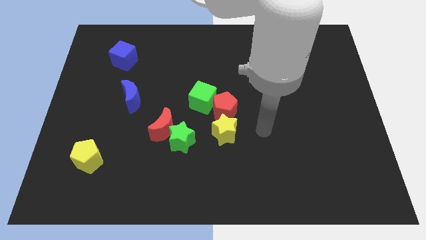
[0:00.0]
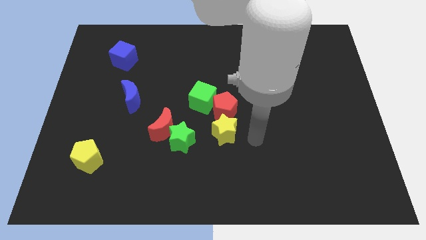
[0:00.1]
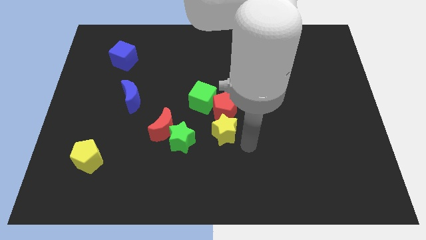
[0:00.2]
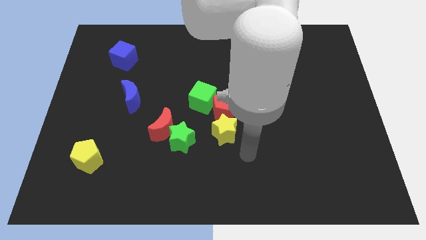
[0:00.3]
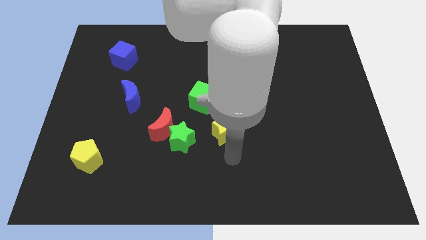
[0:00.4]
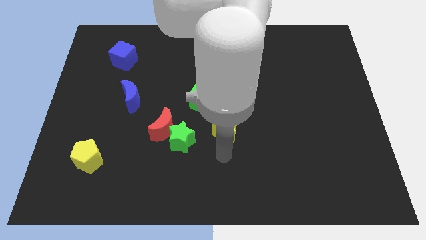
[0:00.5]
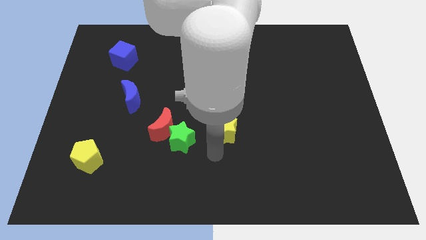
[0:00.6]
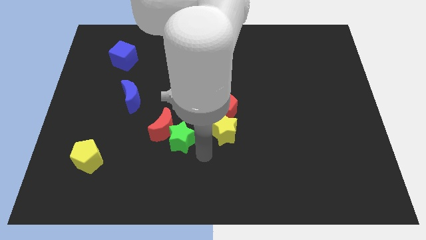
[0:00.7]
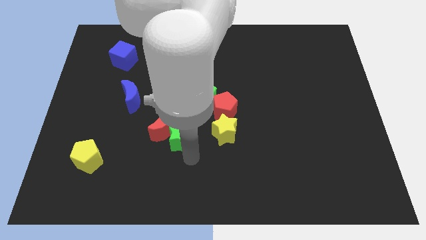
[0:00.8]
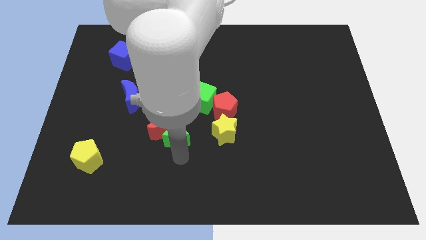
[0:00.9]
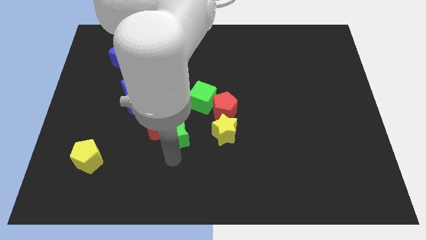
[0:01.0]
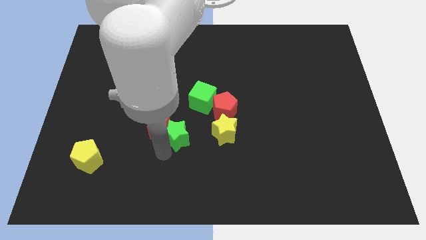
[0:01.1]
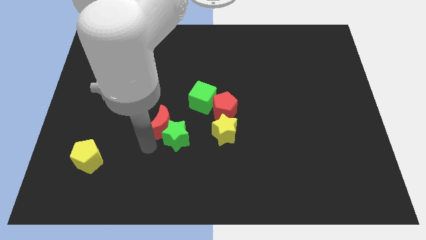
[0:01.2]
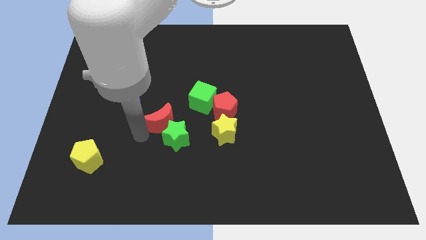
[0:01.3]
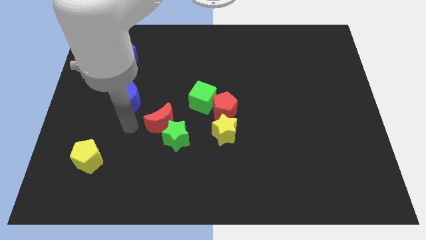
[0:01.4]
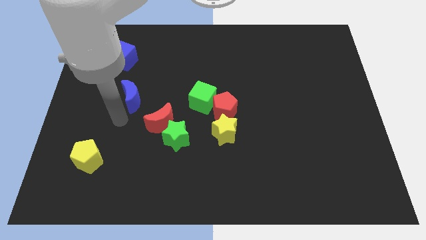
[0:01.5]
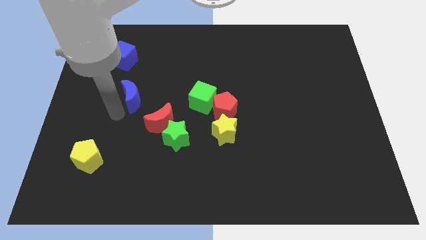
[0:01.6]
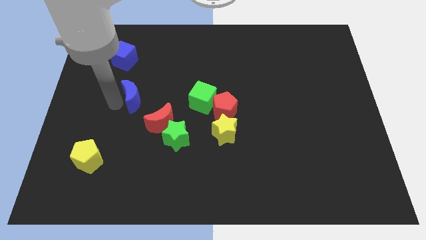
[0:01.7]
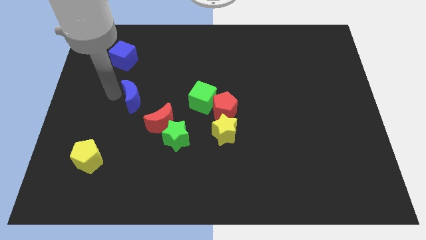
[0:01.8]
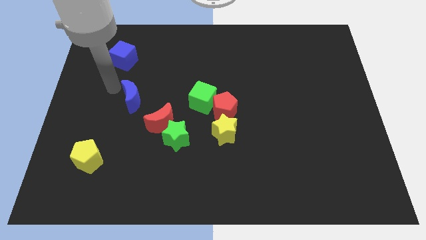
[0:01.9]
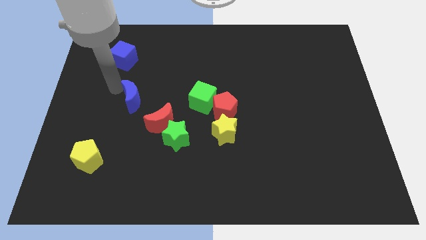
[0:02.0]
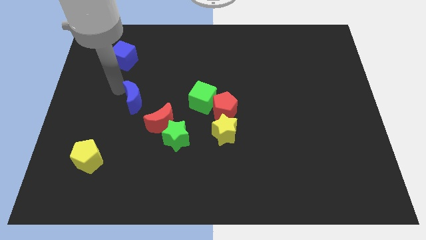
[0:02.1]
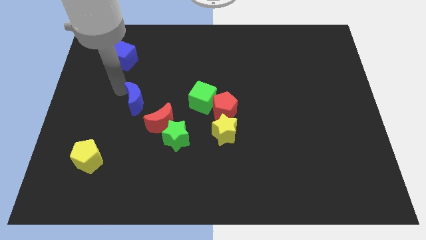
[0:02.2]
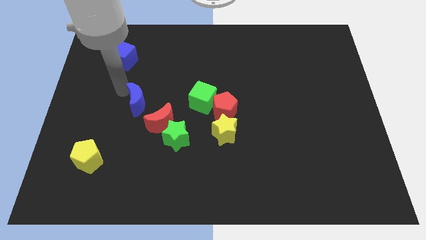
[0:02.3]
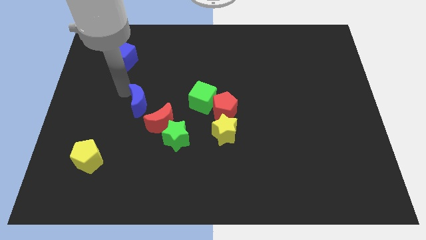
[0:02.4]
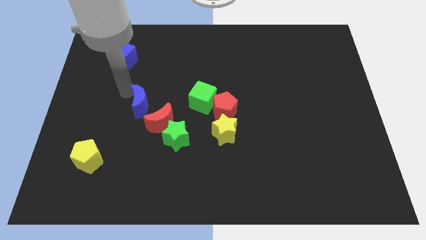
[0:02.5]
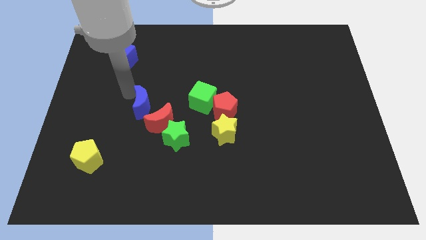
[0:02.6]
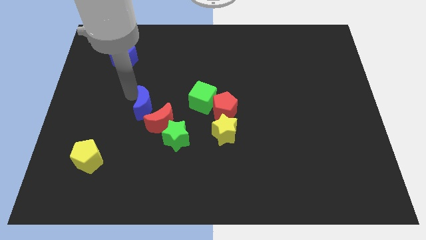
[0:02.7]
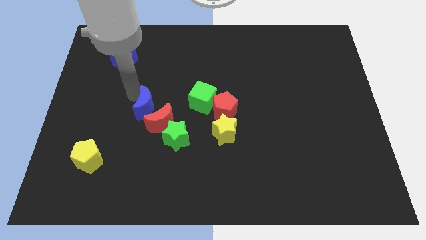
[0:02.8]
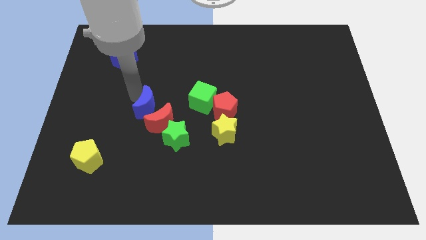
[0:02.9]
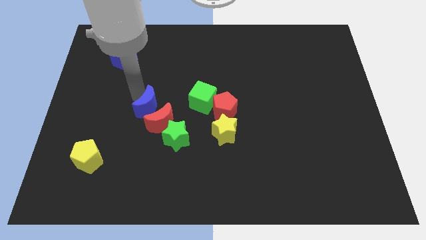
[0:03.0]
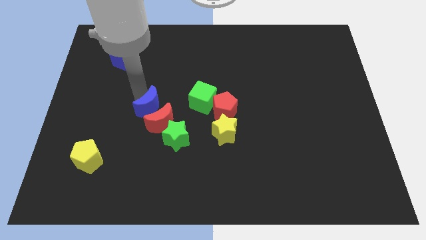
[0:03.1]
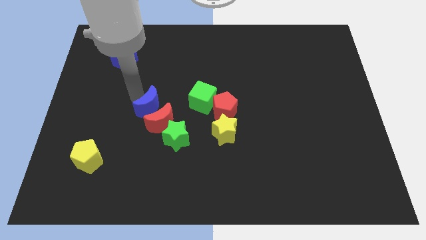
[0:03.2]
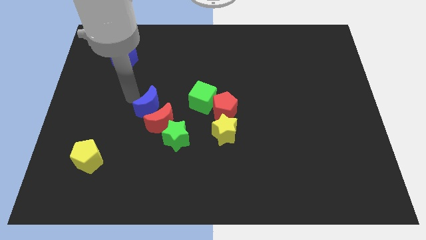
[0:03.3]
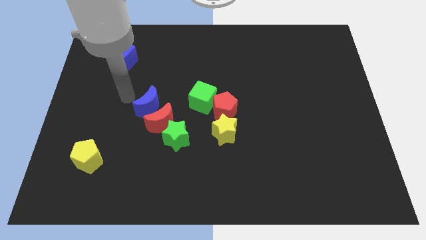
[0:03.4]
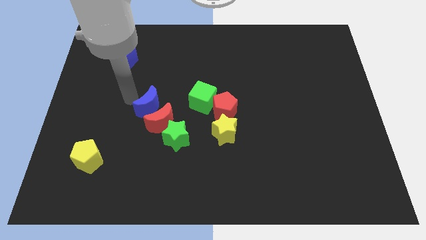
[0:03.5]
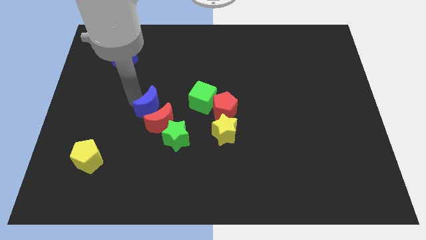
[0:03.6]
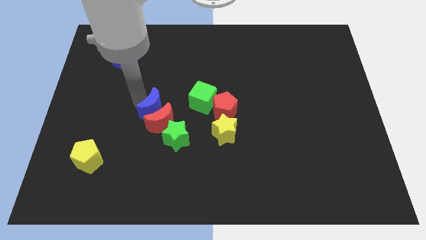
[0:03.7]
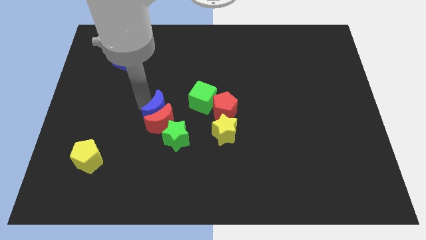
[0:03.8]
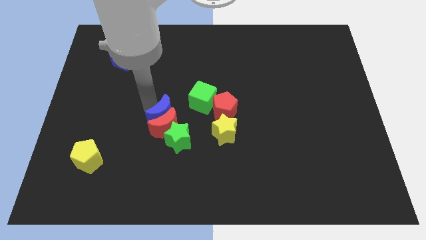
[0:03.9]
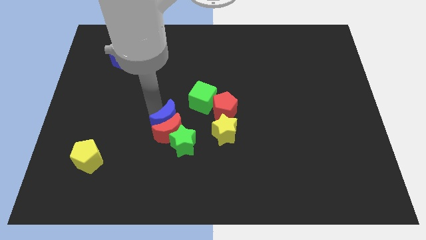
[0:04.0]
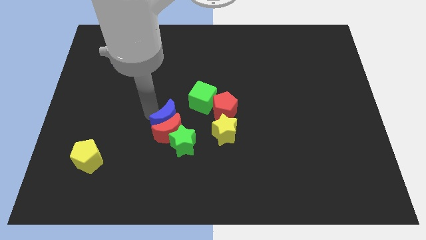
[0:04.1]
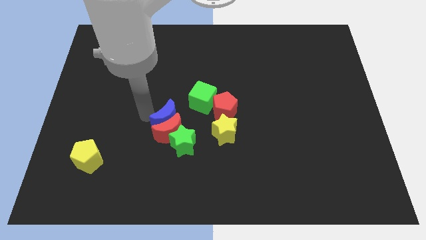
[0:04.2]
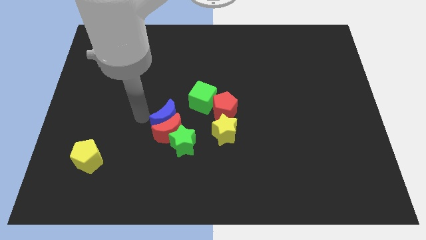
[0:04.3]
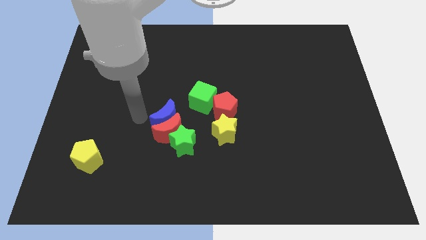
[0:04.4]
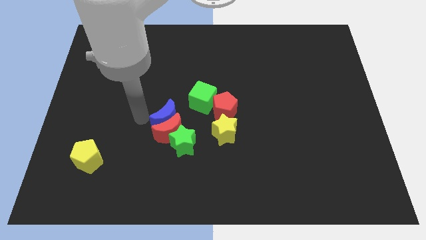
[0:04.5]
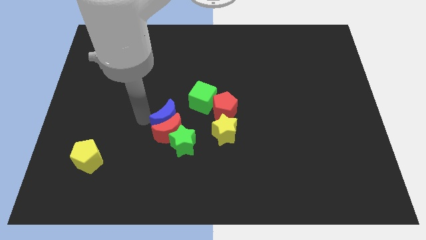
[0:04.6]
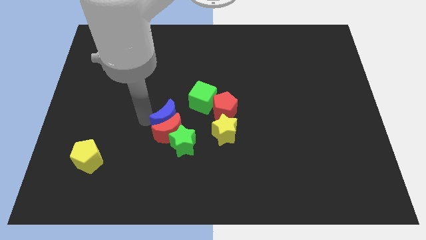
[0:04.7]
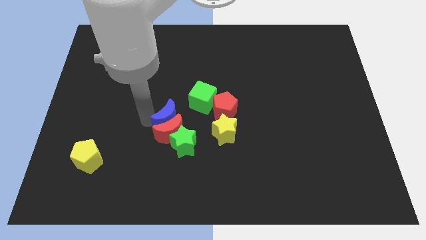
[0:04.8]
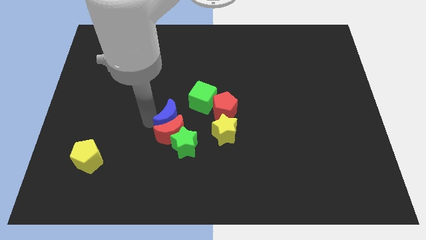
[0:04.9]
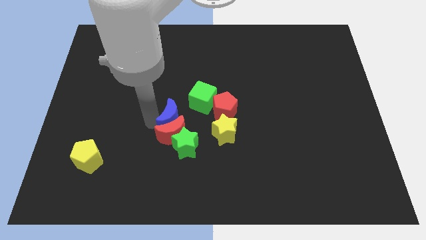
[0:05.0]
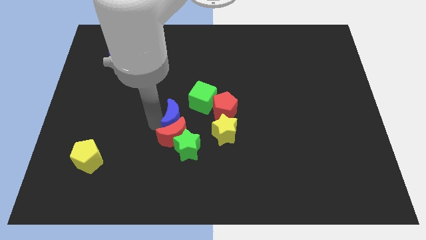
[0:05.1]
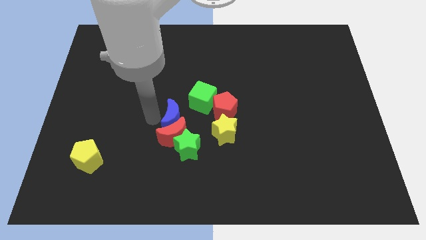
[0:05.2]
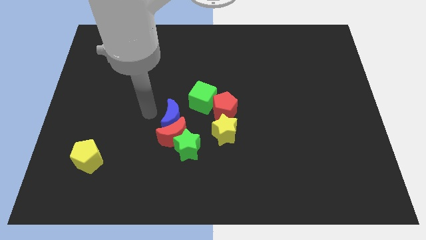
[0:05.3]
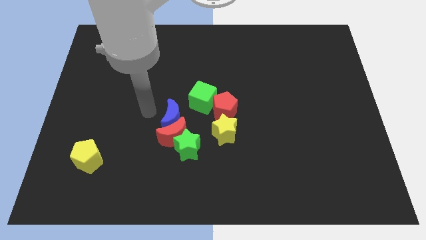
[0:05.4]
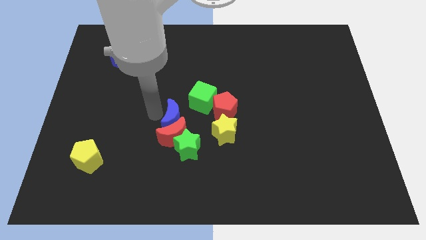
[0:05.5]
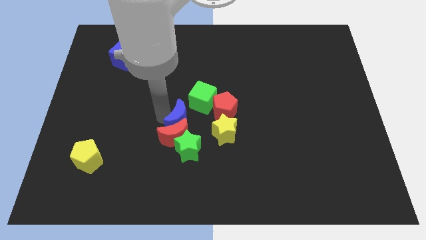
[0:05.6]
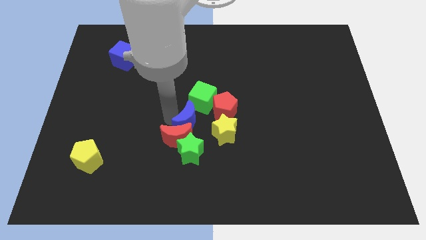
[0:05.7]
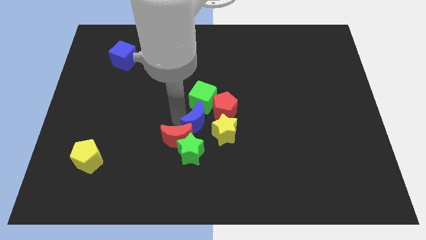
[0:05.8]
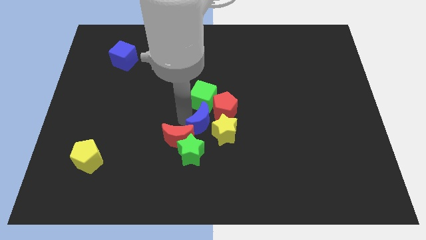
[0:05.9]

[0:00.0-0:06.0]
slide the blue moon next to the yellow star

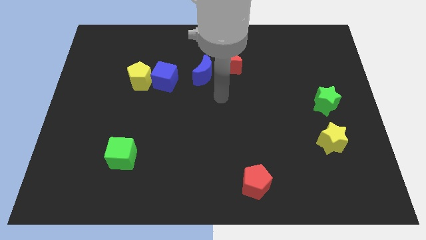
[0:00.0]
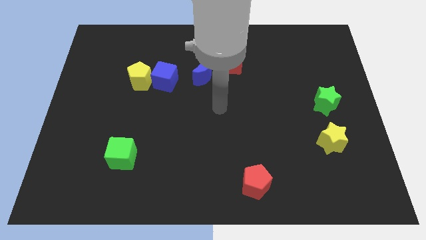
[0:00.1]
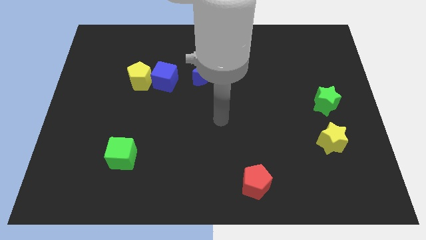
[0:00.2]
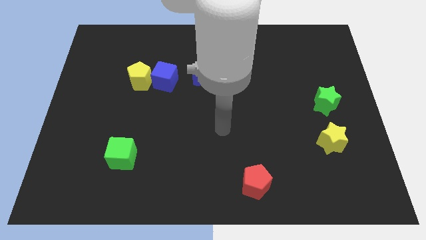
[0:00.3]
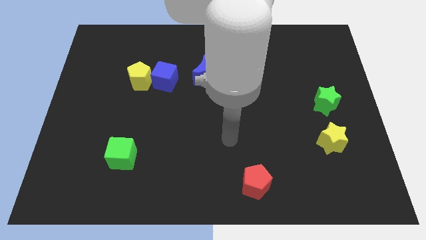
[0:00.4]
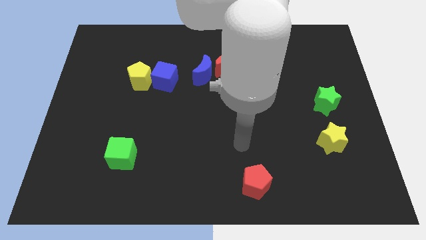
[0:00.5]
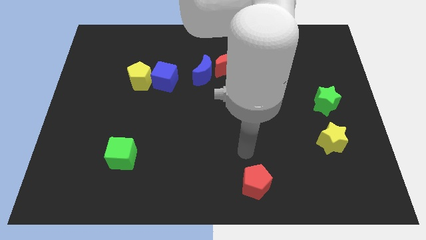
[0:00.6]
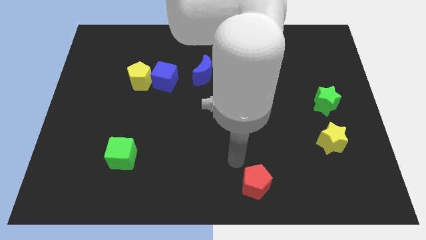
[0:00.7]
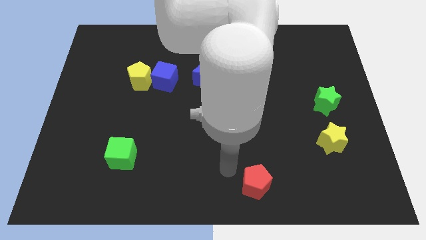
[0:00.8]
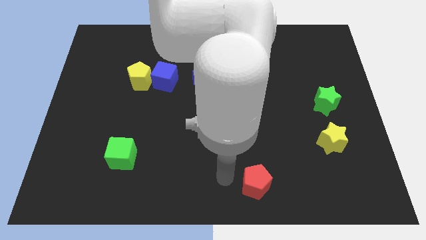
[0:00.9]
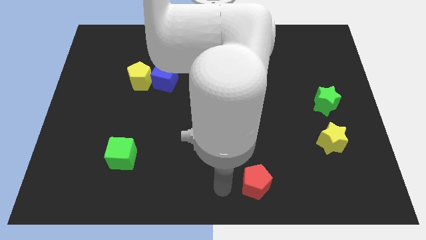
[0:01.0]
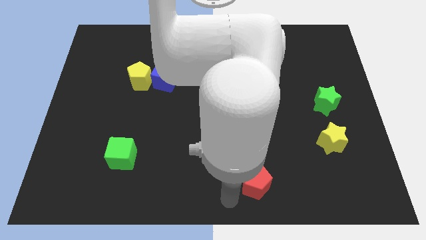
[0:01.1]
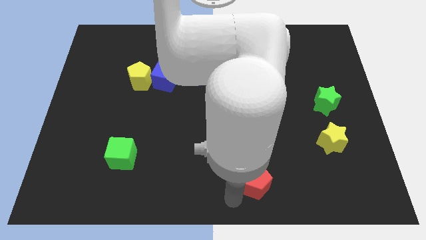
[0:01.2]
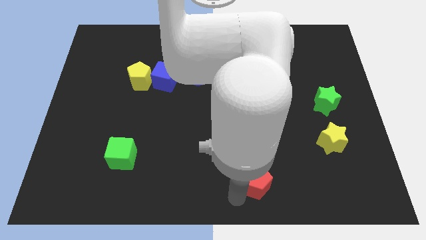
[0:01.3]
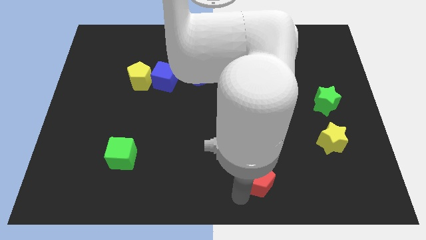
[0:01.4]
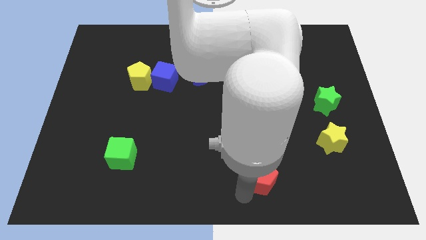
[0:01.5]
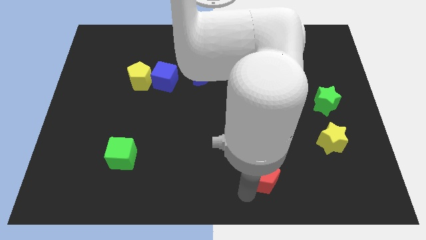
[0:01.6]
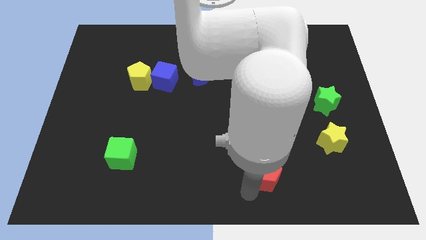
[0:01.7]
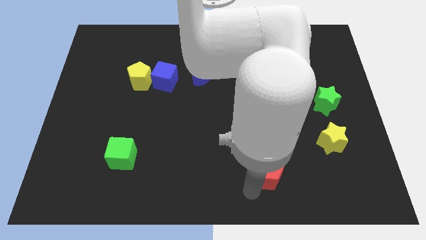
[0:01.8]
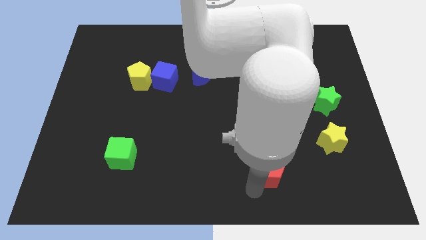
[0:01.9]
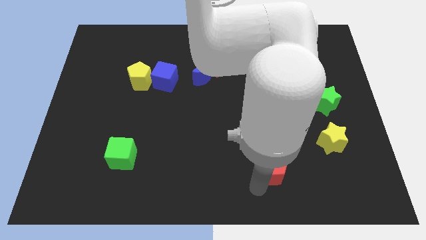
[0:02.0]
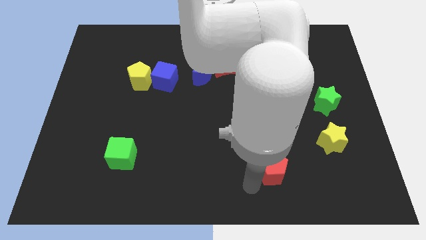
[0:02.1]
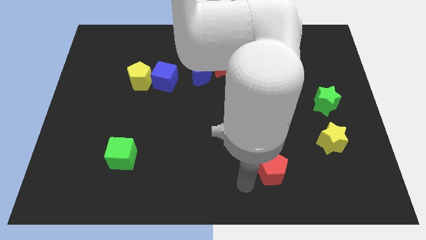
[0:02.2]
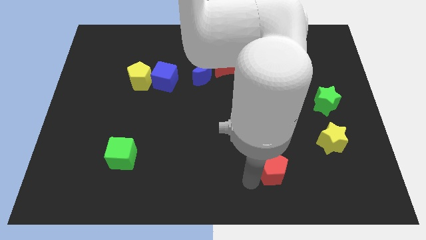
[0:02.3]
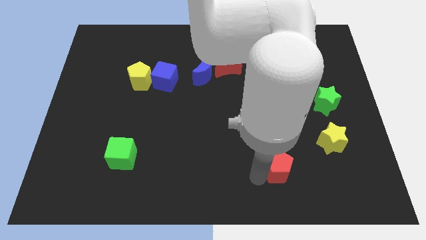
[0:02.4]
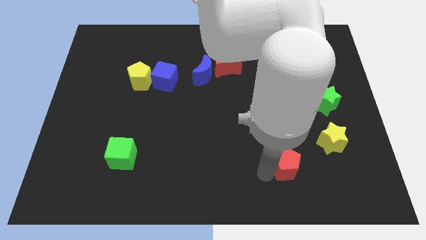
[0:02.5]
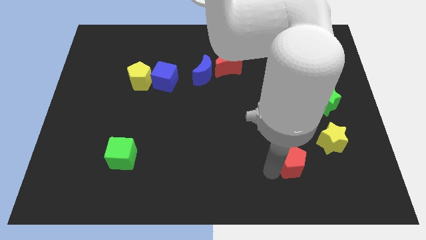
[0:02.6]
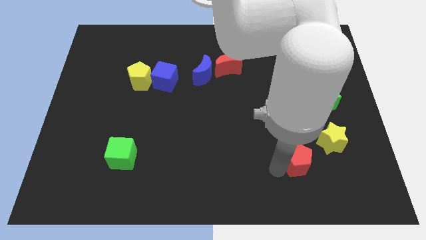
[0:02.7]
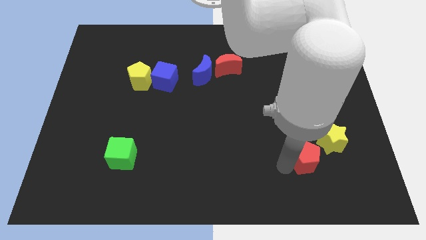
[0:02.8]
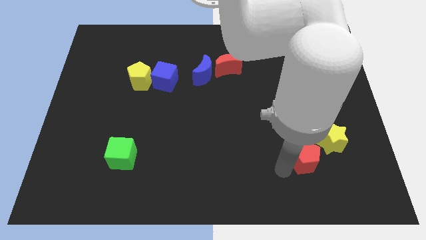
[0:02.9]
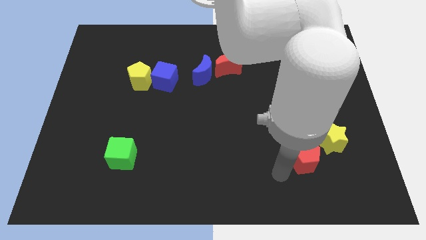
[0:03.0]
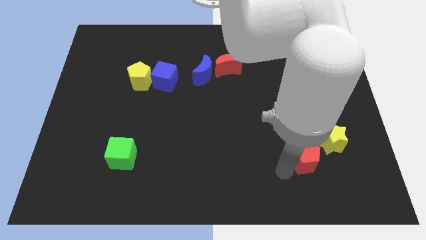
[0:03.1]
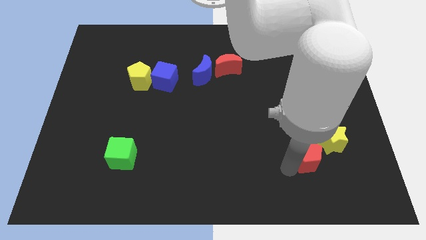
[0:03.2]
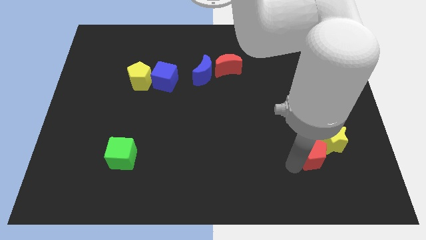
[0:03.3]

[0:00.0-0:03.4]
put the red pentagon towards the yellow star
